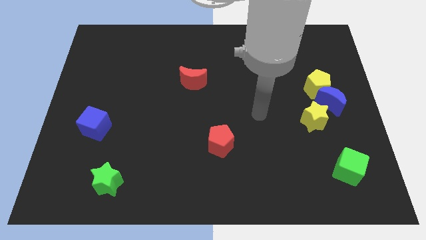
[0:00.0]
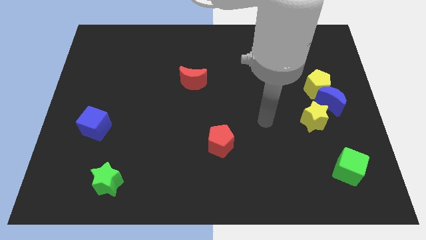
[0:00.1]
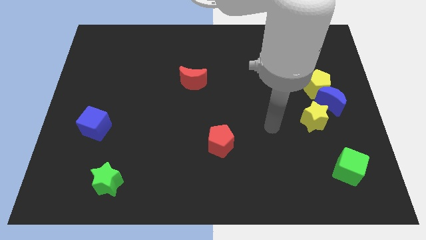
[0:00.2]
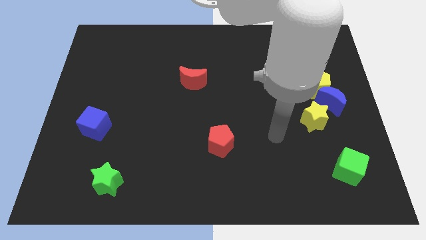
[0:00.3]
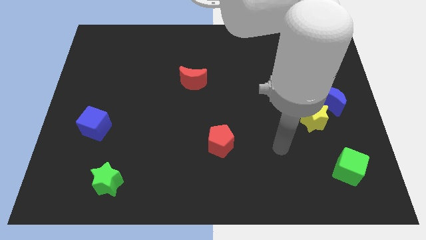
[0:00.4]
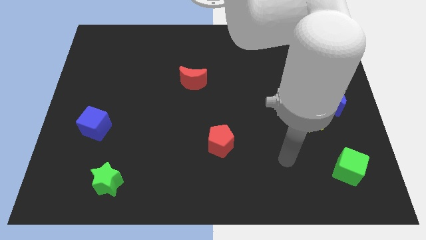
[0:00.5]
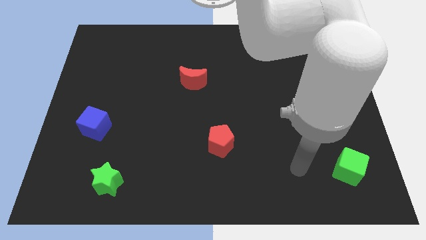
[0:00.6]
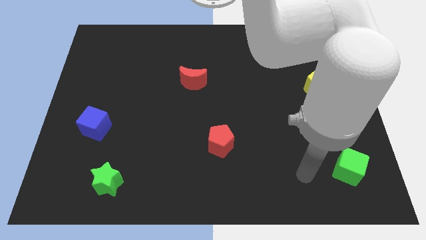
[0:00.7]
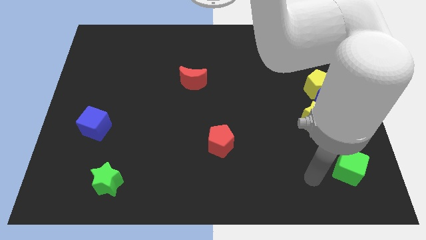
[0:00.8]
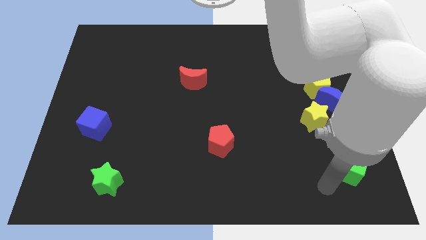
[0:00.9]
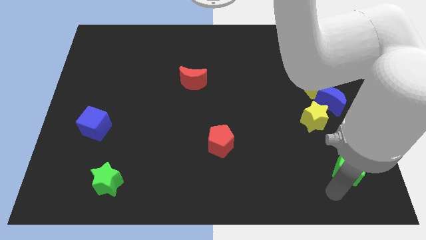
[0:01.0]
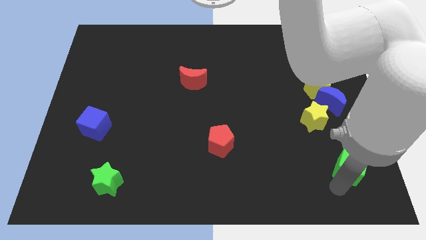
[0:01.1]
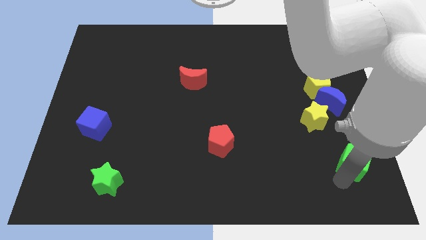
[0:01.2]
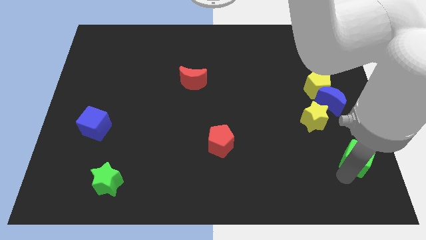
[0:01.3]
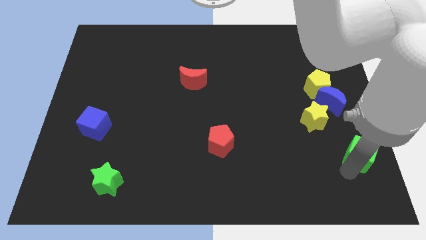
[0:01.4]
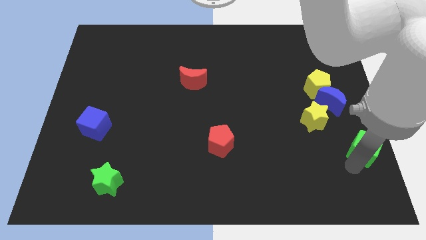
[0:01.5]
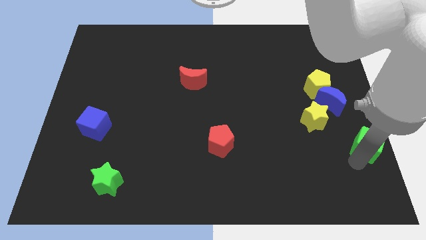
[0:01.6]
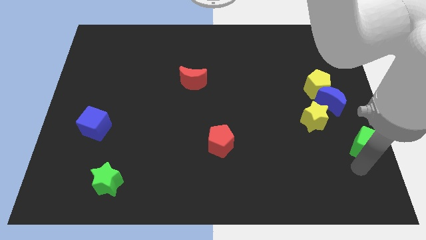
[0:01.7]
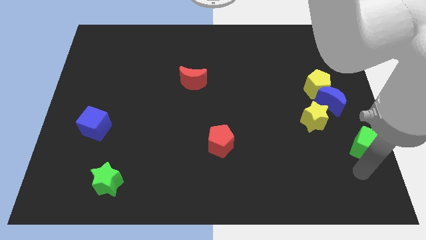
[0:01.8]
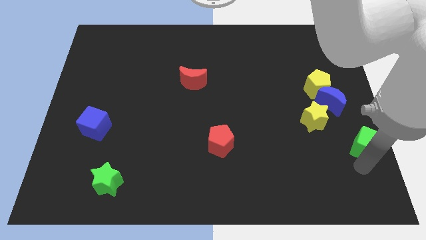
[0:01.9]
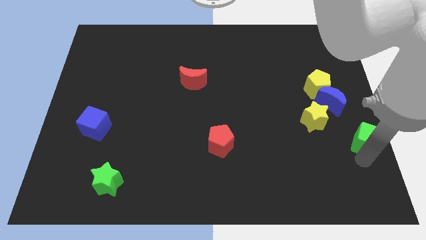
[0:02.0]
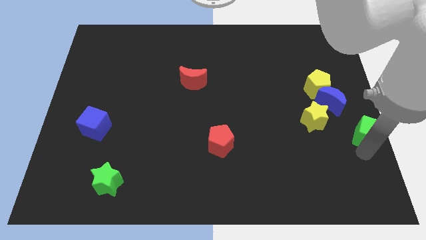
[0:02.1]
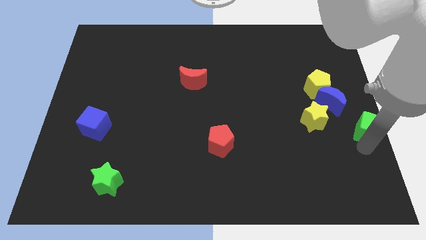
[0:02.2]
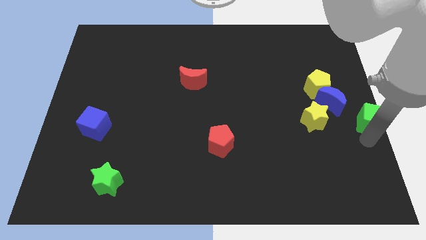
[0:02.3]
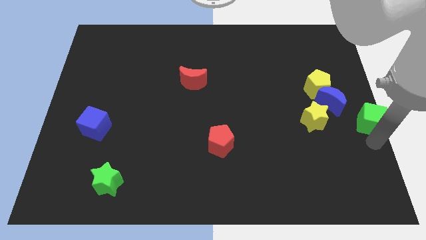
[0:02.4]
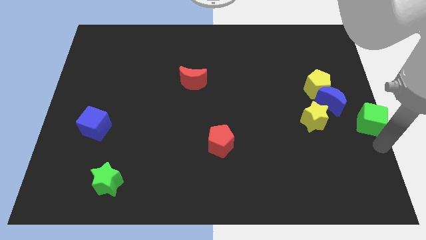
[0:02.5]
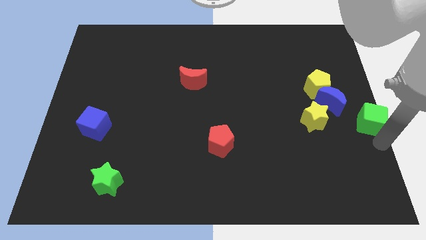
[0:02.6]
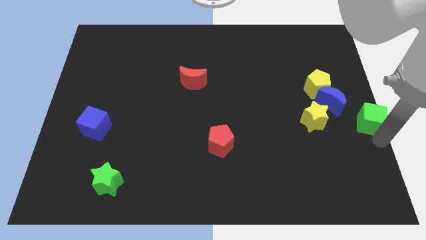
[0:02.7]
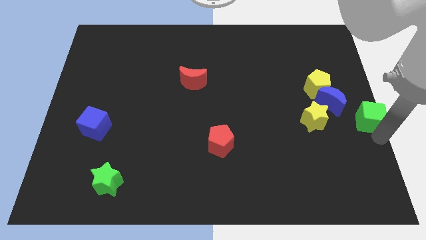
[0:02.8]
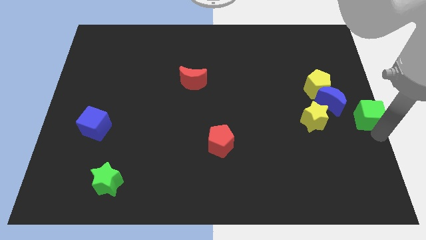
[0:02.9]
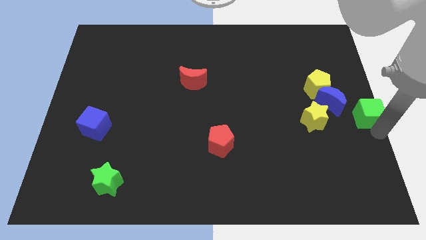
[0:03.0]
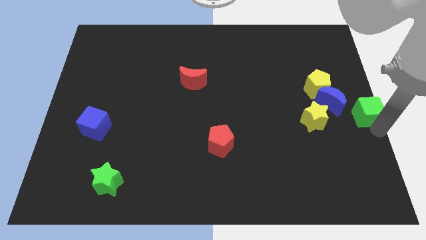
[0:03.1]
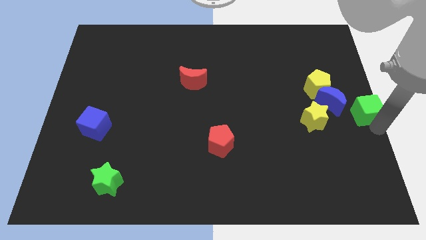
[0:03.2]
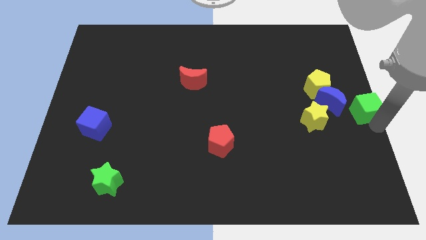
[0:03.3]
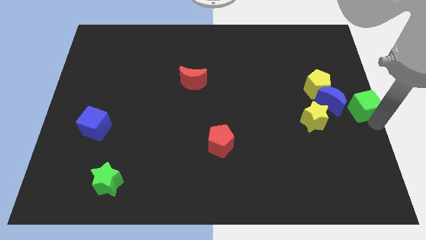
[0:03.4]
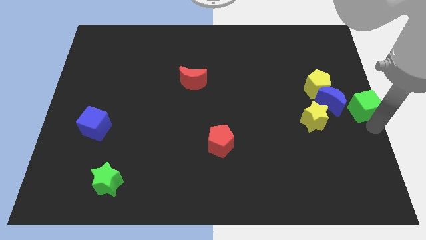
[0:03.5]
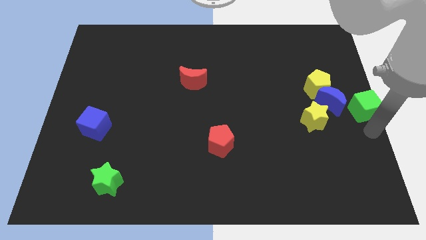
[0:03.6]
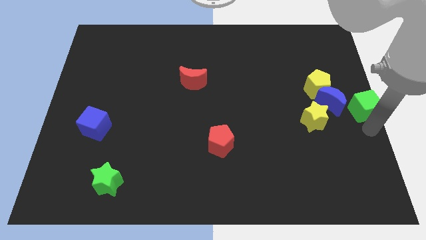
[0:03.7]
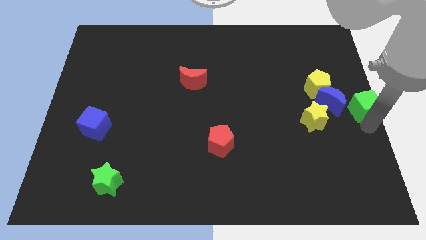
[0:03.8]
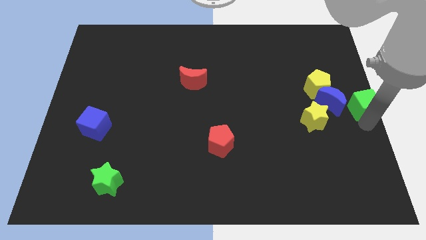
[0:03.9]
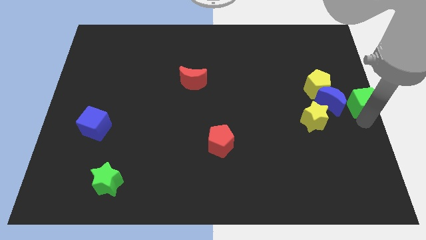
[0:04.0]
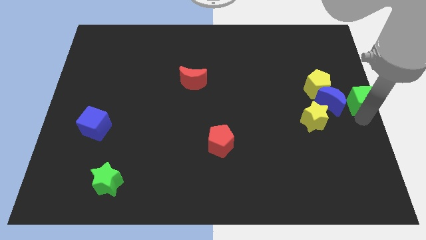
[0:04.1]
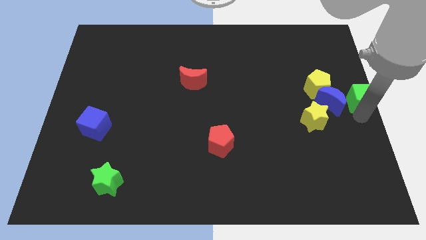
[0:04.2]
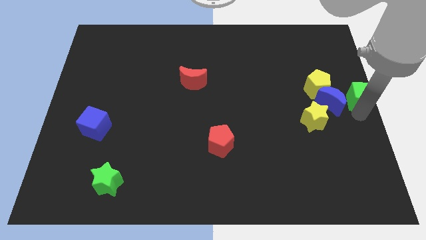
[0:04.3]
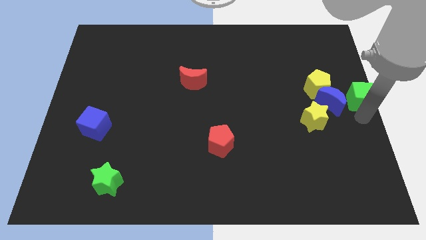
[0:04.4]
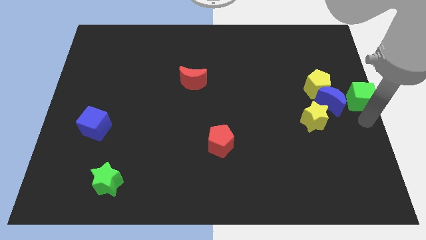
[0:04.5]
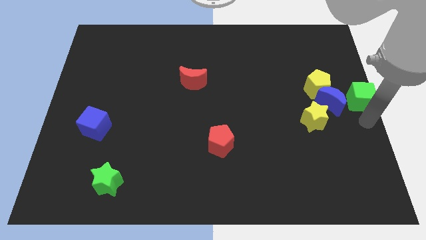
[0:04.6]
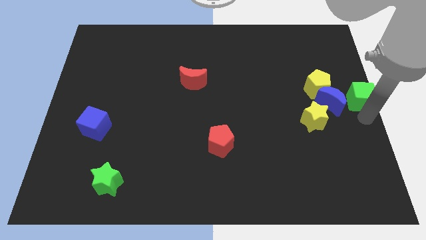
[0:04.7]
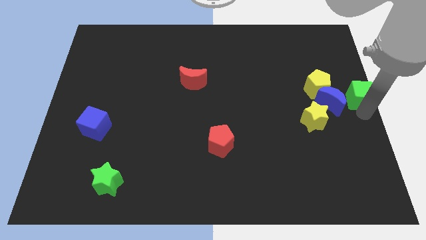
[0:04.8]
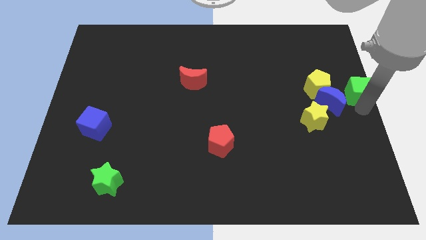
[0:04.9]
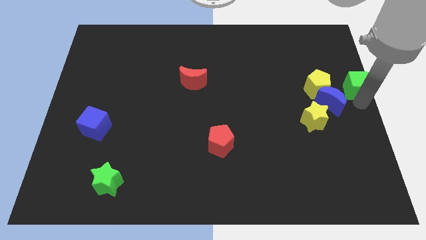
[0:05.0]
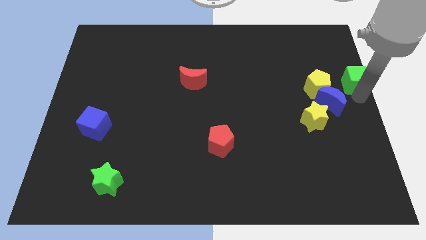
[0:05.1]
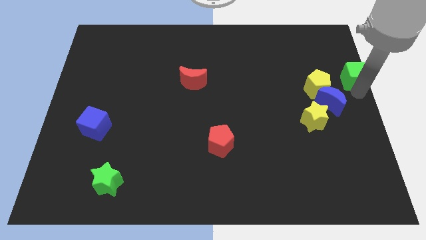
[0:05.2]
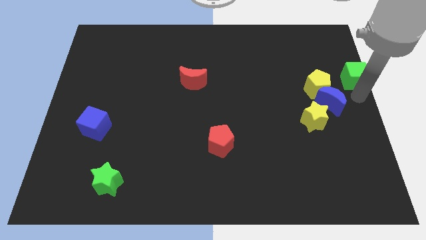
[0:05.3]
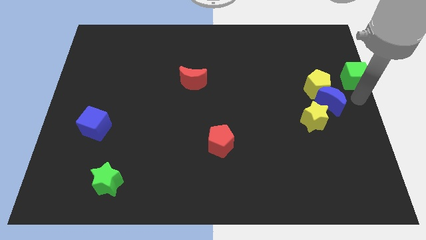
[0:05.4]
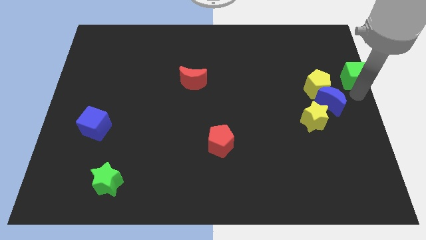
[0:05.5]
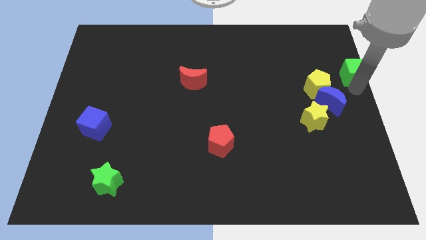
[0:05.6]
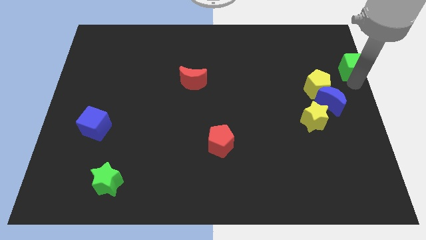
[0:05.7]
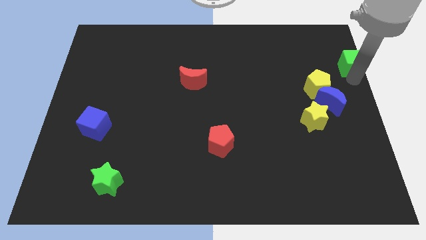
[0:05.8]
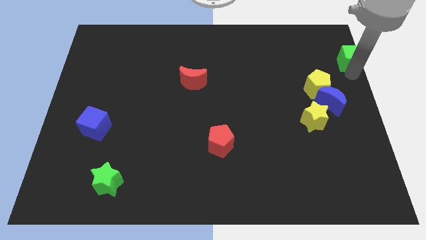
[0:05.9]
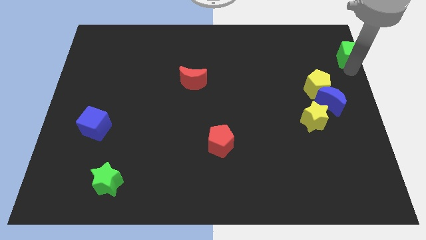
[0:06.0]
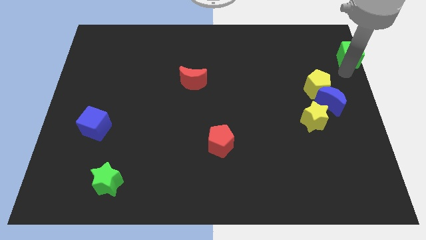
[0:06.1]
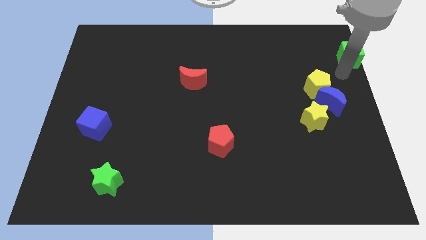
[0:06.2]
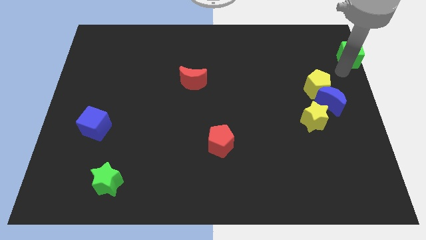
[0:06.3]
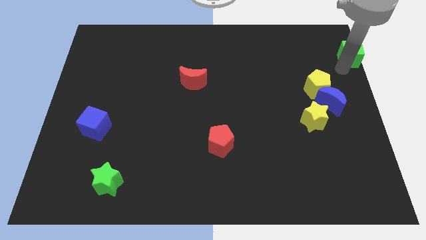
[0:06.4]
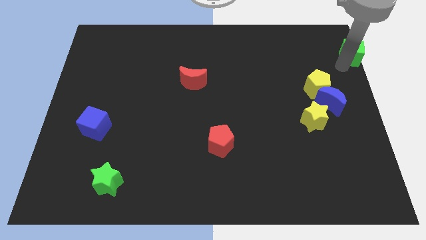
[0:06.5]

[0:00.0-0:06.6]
slide the green cube to the top right

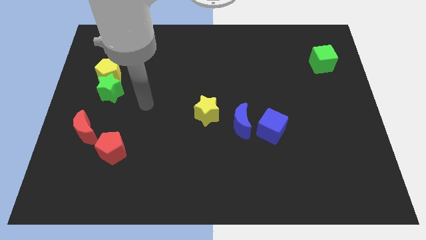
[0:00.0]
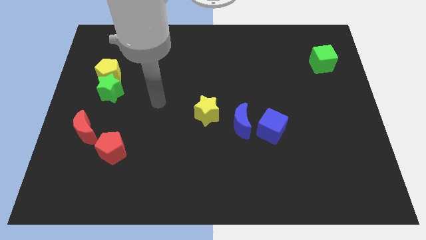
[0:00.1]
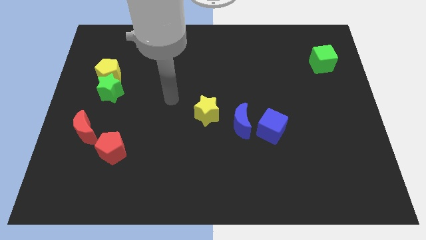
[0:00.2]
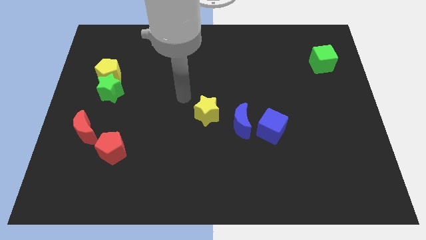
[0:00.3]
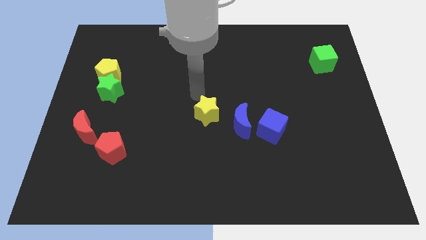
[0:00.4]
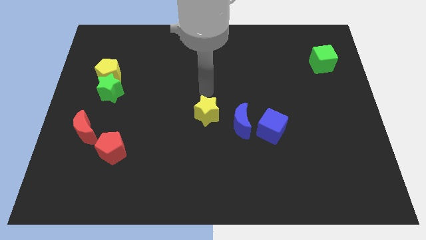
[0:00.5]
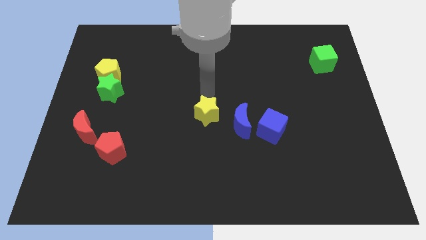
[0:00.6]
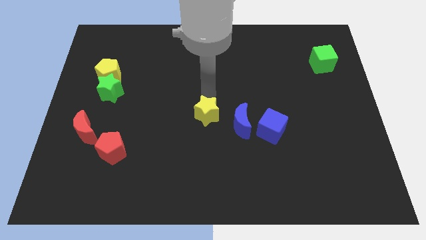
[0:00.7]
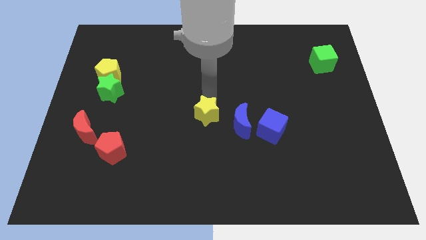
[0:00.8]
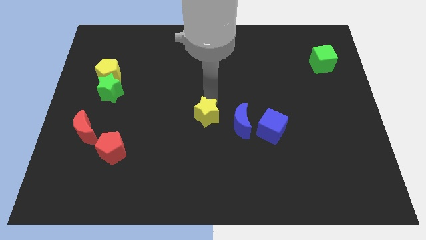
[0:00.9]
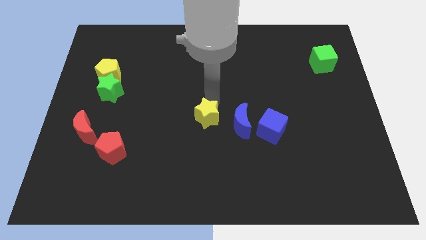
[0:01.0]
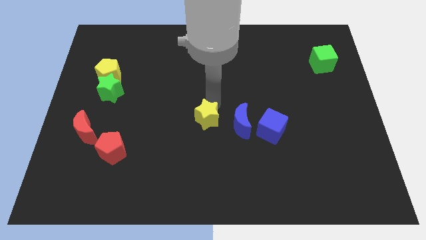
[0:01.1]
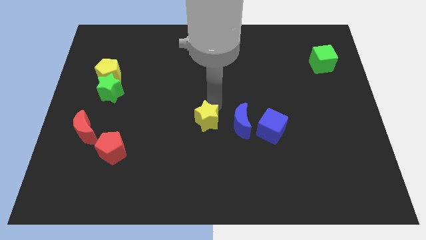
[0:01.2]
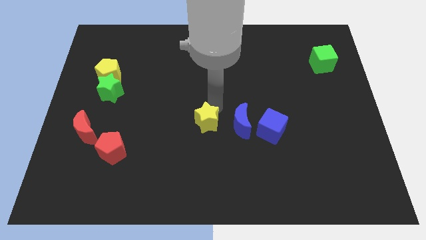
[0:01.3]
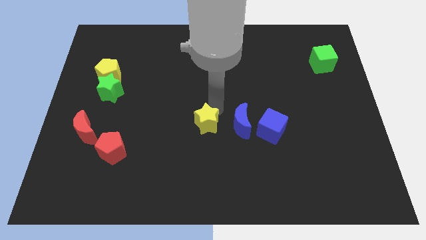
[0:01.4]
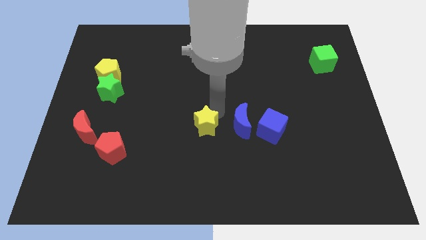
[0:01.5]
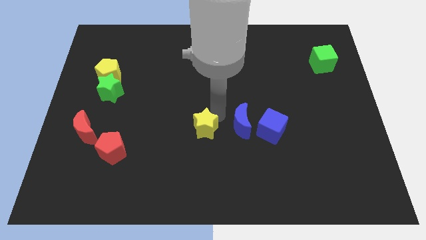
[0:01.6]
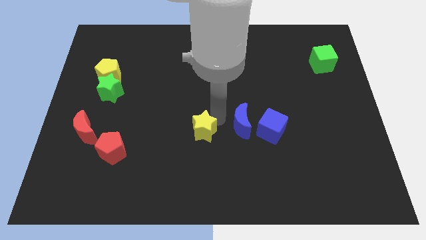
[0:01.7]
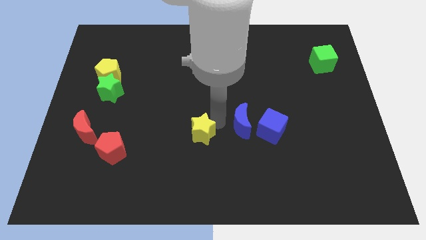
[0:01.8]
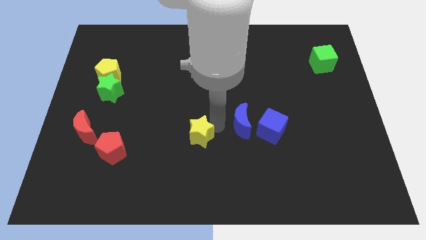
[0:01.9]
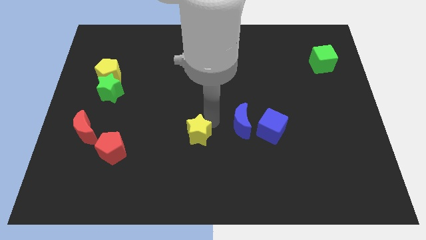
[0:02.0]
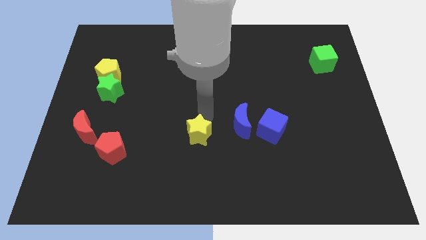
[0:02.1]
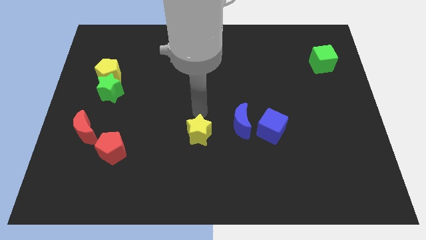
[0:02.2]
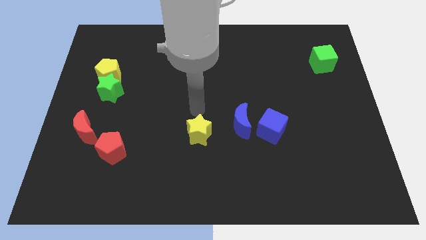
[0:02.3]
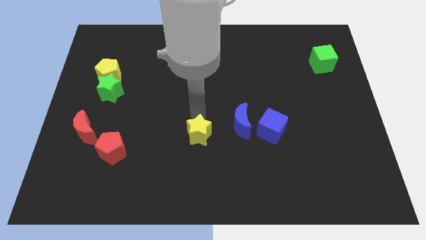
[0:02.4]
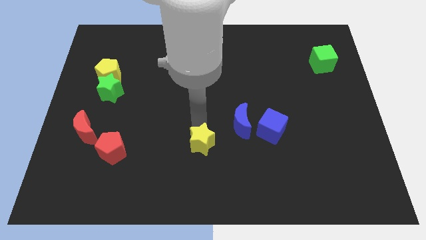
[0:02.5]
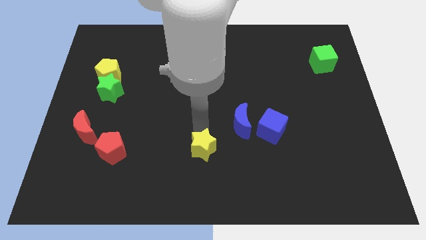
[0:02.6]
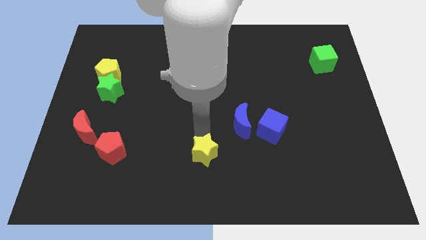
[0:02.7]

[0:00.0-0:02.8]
move the yellow star to the bottom side
